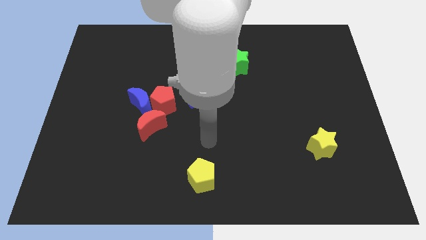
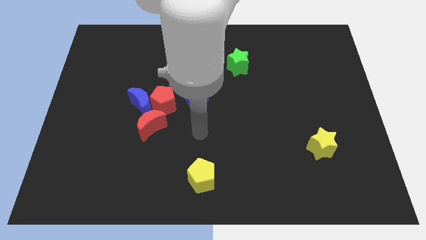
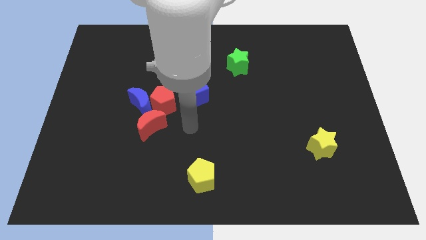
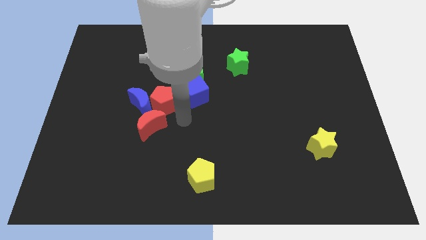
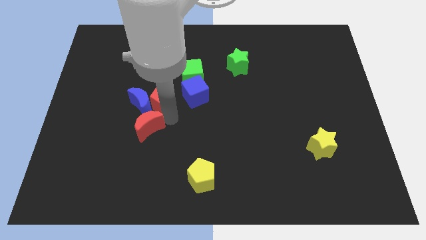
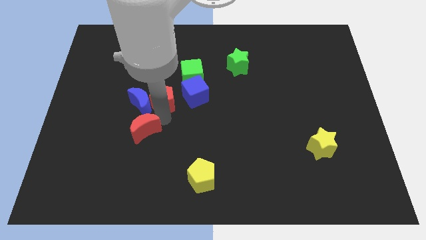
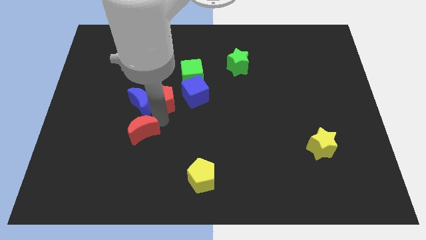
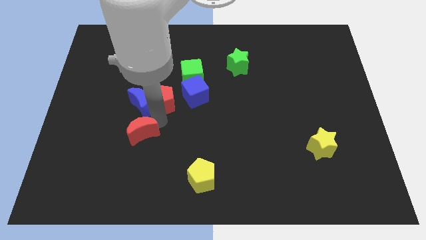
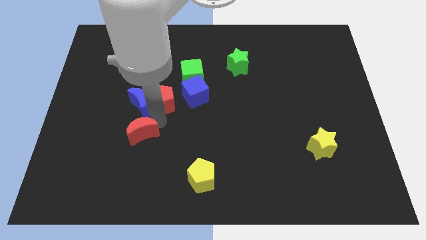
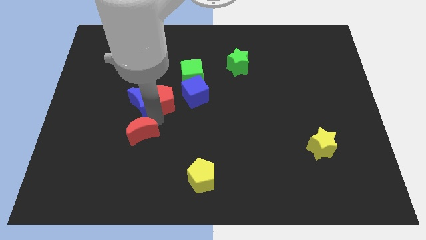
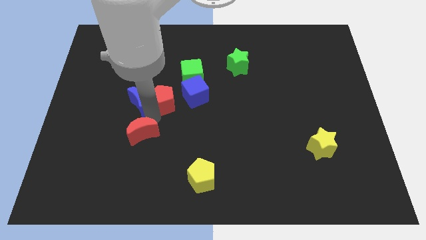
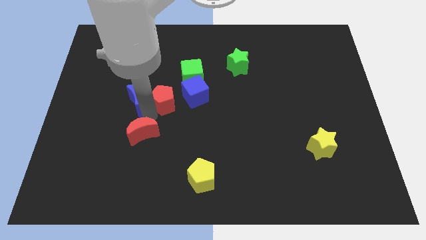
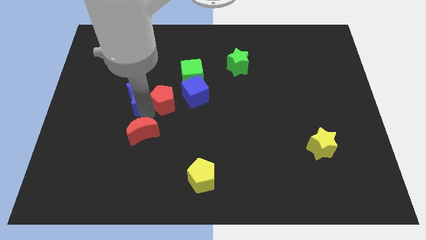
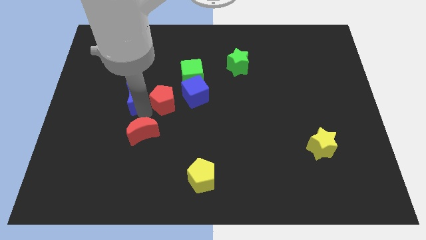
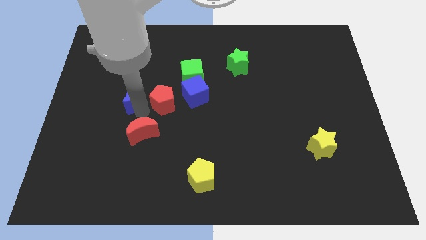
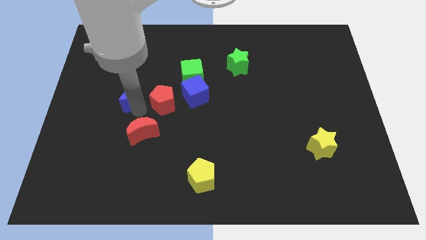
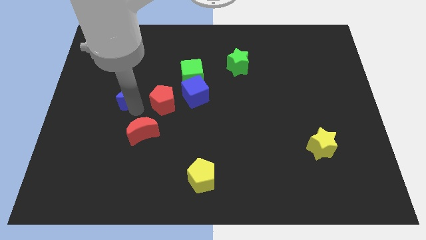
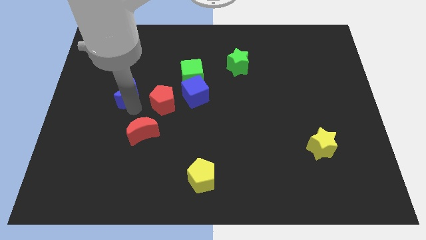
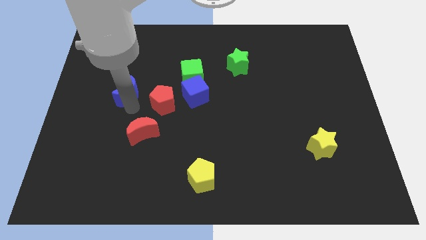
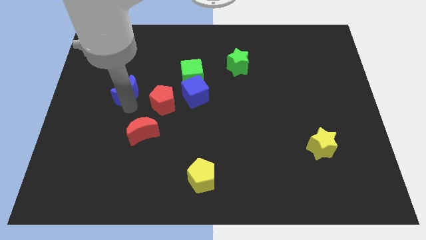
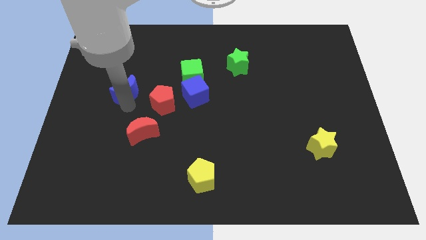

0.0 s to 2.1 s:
separate the blue moon from the red pentagon and red moon

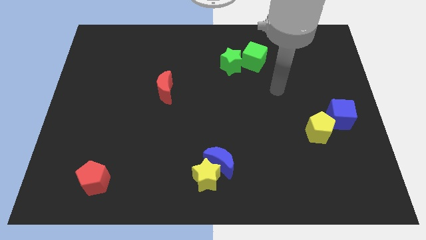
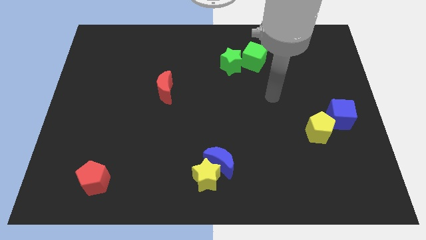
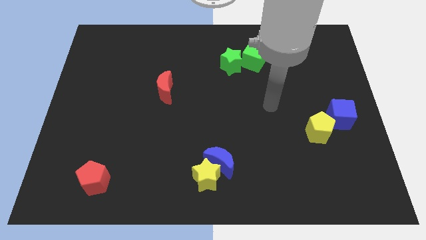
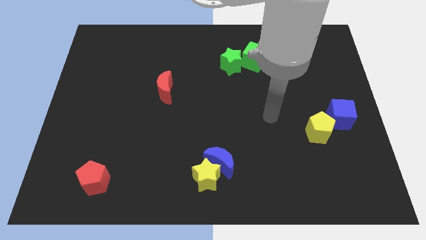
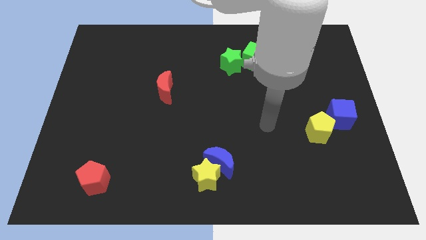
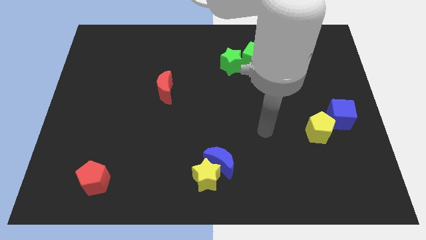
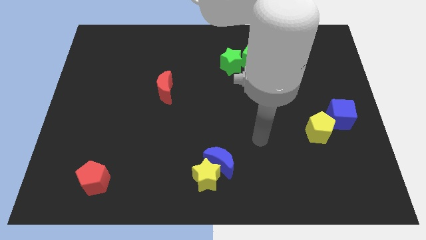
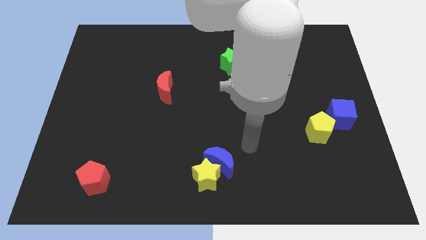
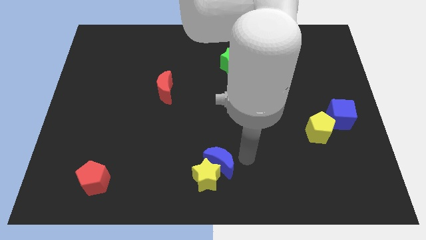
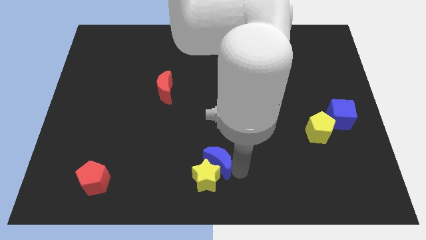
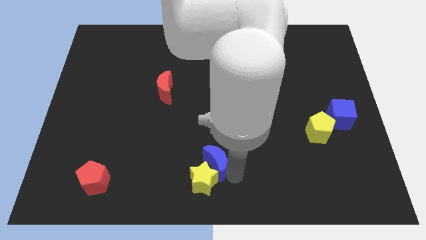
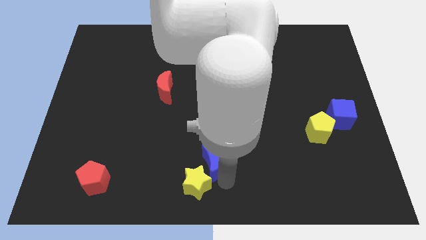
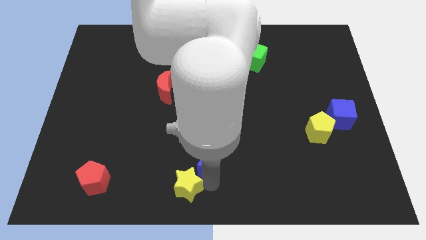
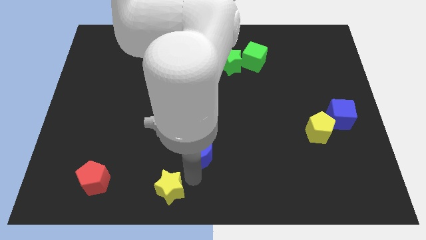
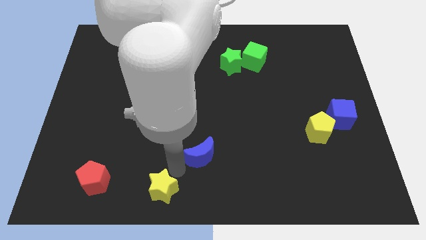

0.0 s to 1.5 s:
move the blue moon away from the yellow star

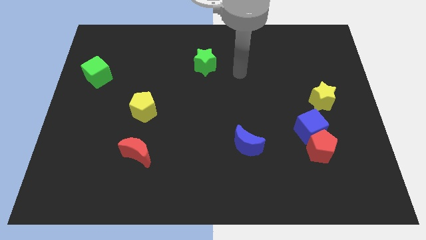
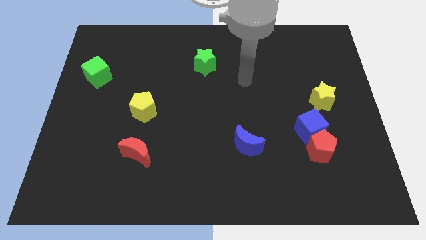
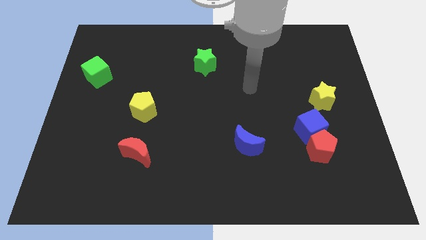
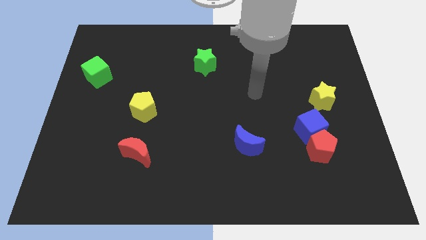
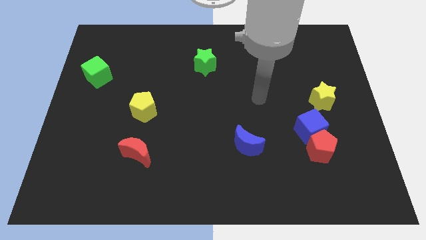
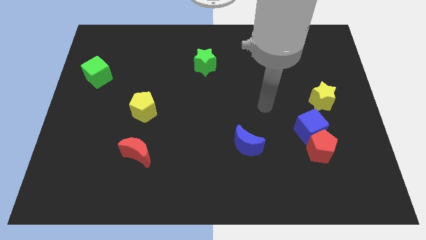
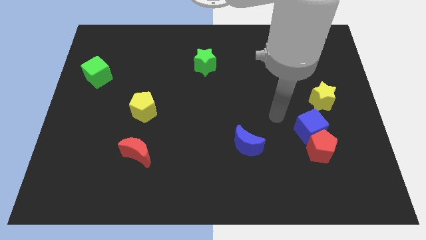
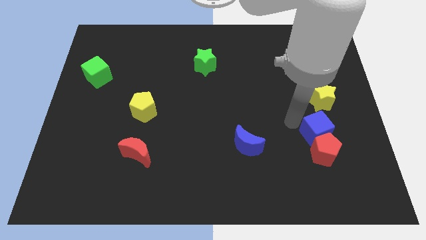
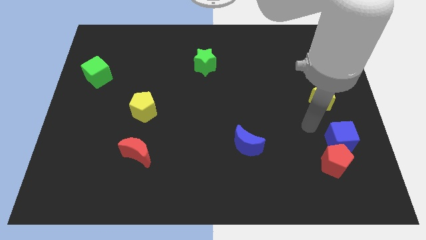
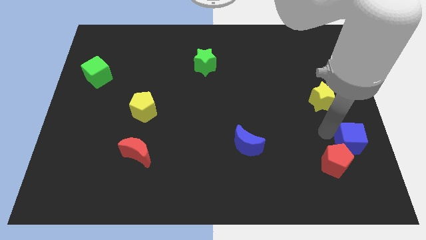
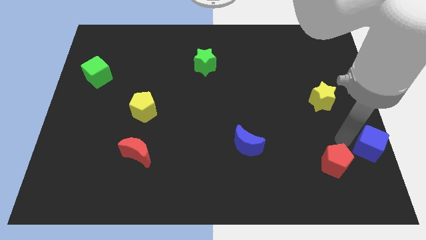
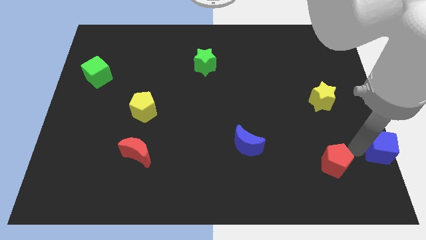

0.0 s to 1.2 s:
move the red pentagon away from the blue cube

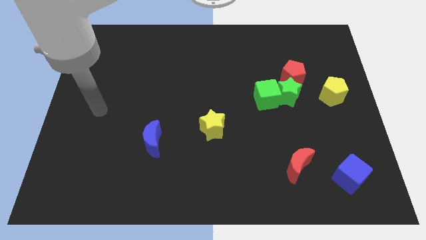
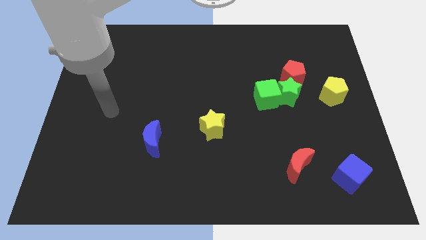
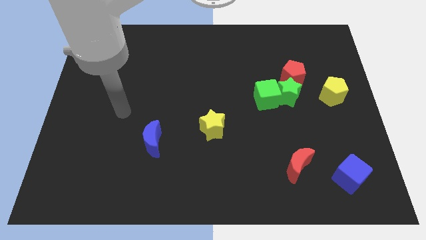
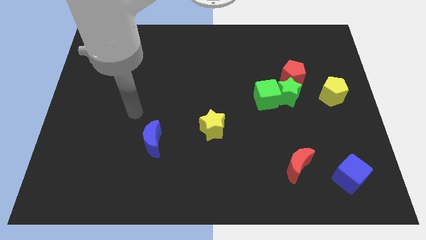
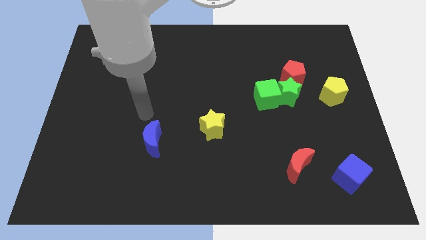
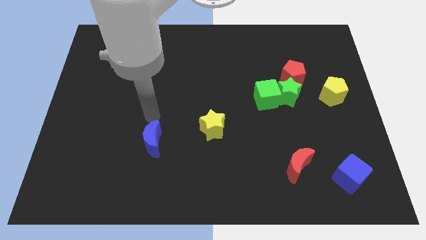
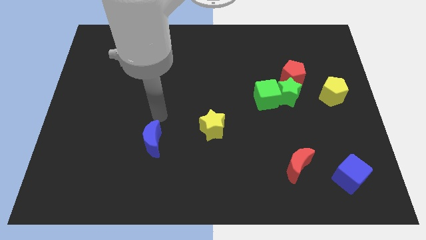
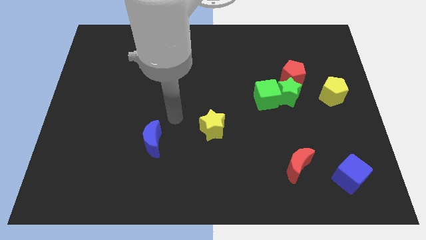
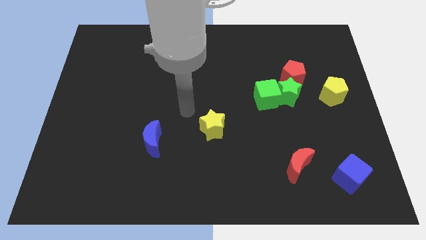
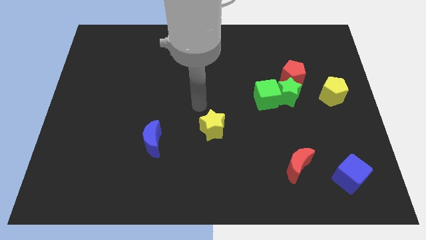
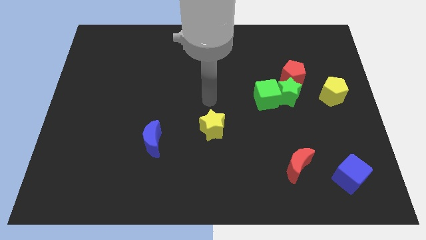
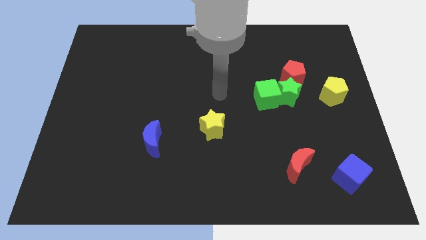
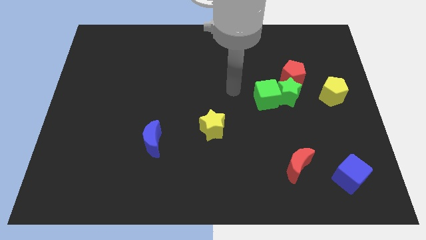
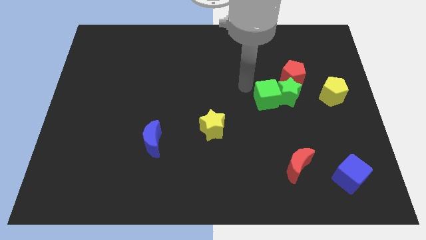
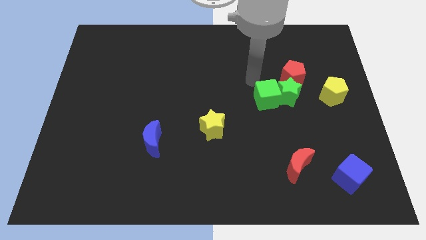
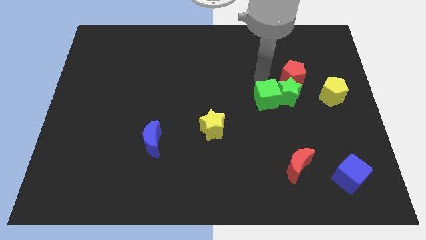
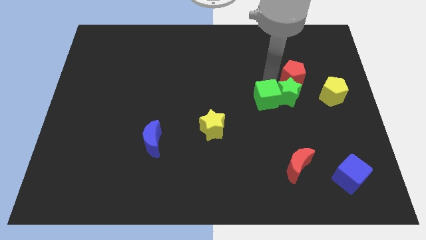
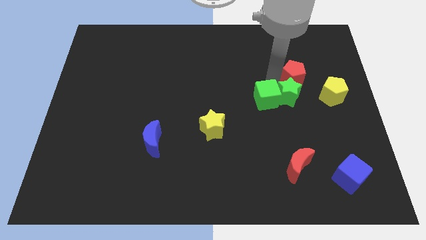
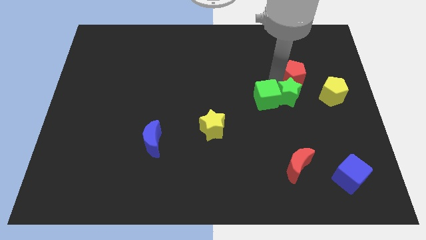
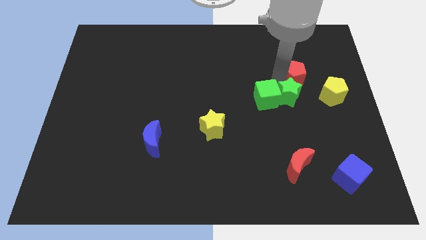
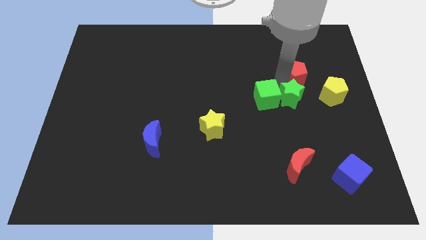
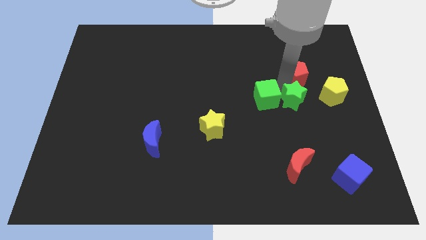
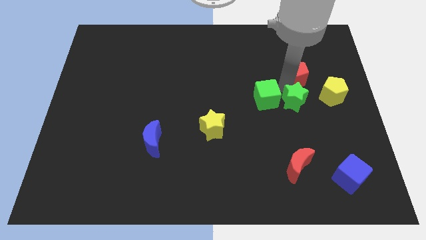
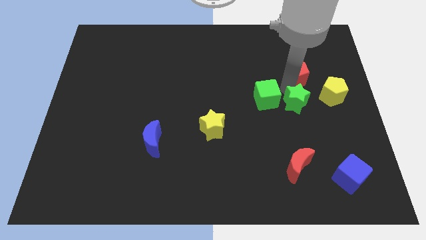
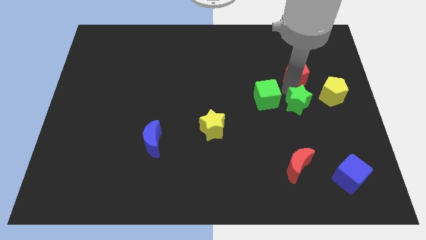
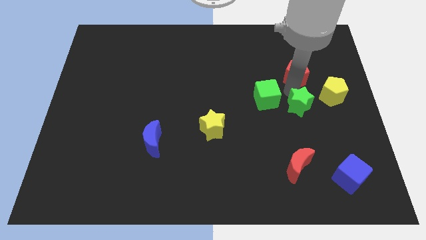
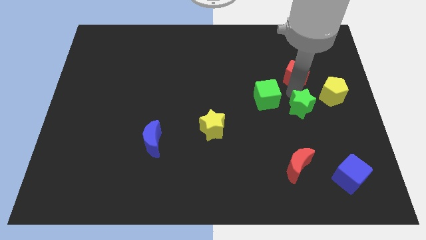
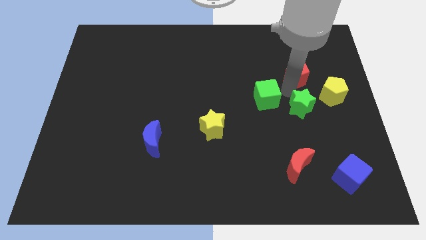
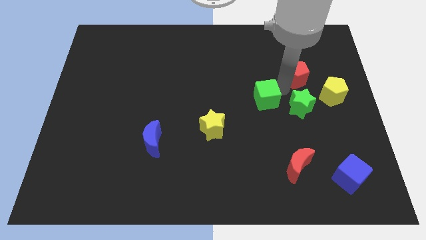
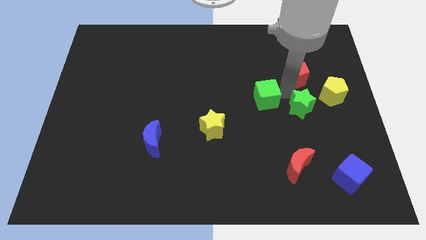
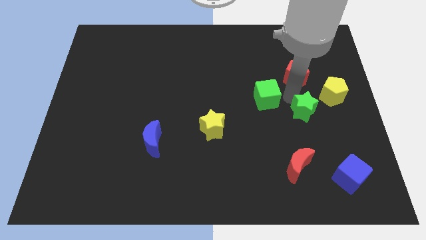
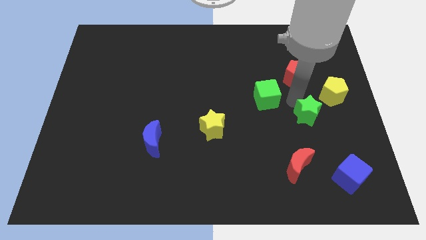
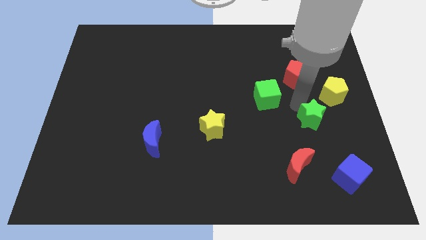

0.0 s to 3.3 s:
separate the green star from the green cube and red pentagon

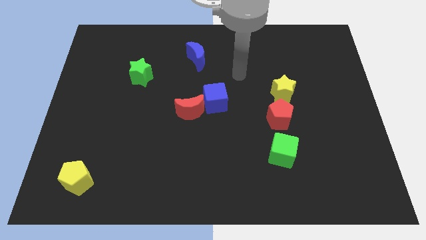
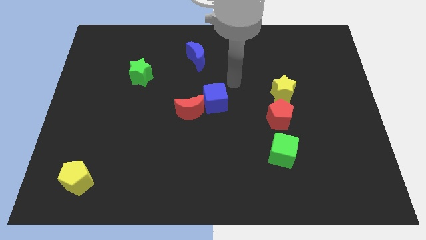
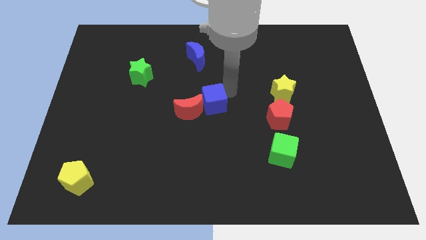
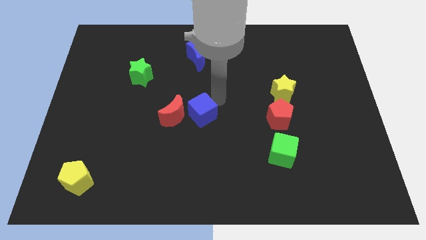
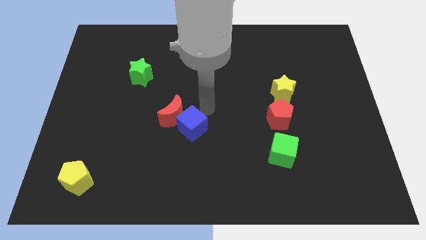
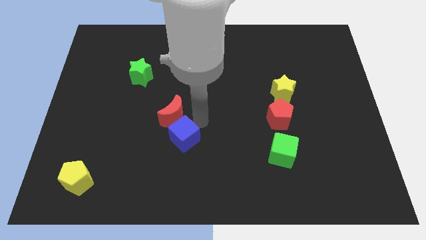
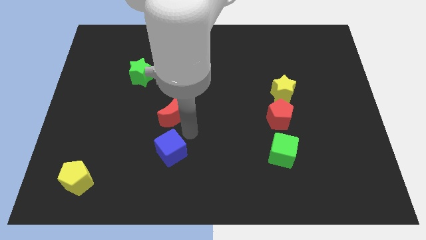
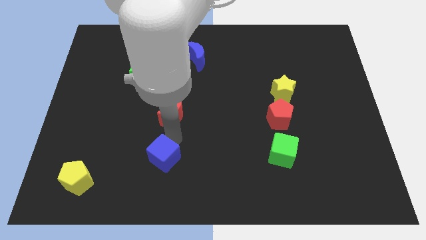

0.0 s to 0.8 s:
move the red moon away from the blue cube

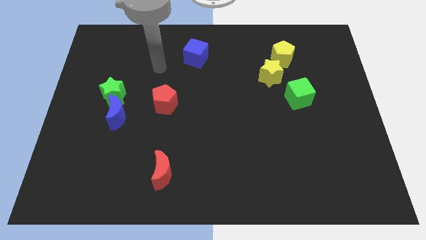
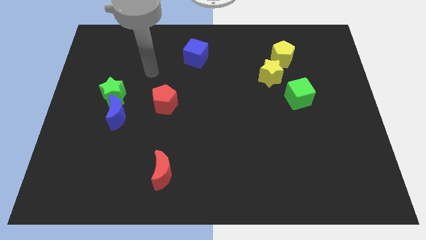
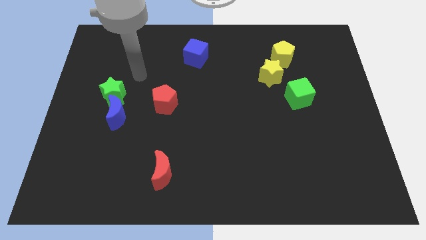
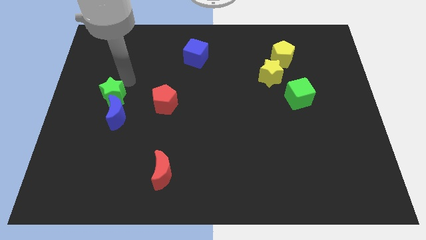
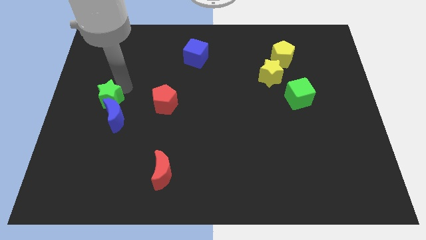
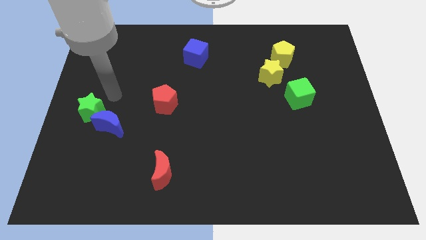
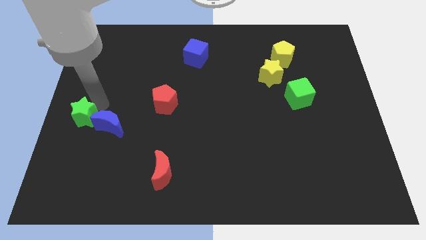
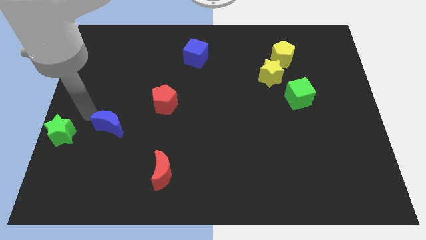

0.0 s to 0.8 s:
separate the blue moon from the green star
